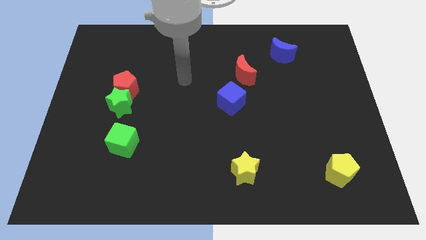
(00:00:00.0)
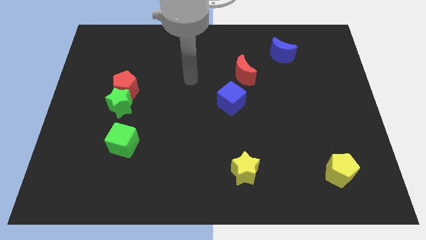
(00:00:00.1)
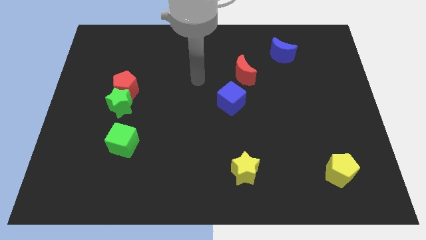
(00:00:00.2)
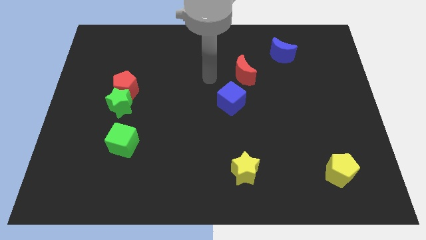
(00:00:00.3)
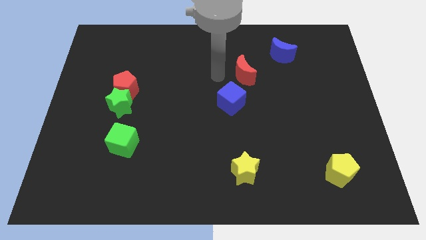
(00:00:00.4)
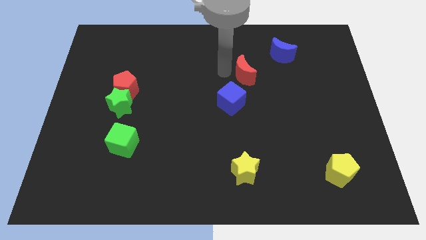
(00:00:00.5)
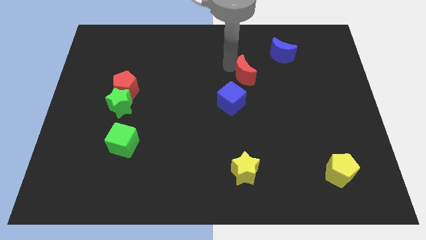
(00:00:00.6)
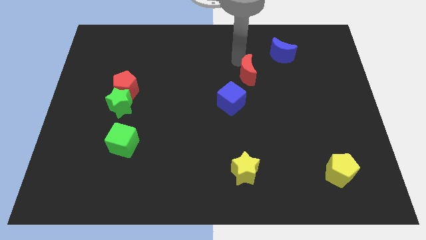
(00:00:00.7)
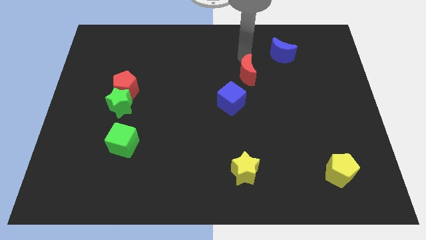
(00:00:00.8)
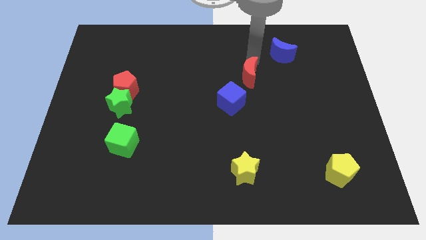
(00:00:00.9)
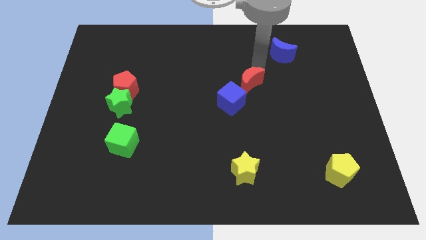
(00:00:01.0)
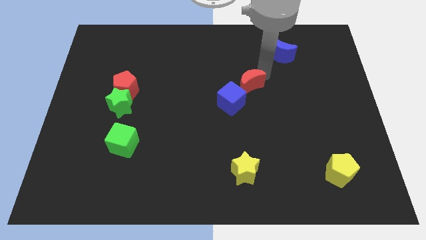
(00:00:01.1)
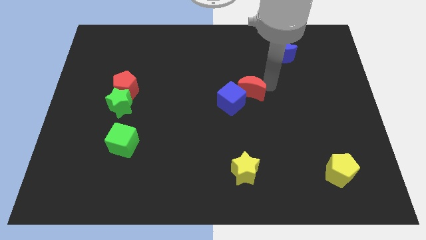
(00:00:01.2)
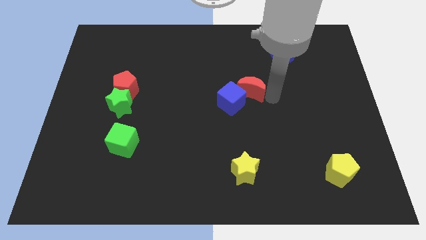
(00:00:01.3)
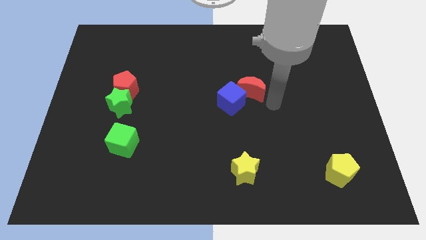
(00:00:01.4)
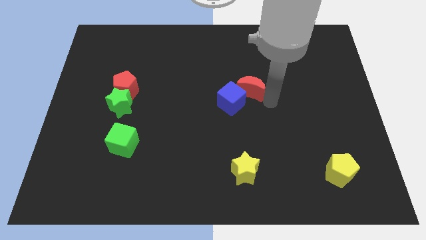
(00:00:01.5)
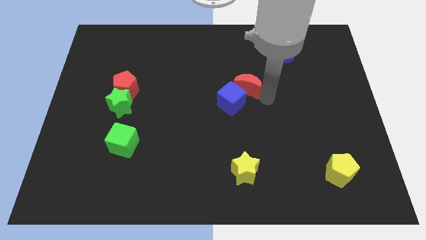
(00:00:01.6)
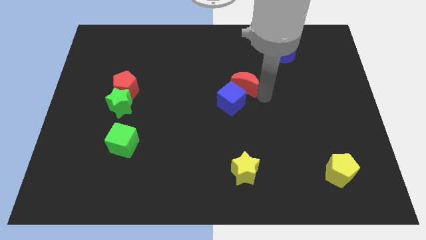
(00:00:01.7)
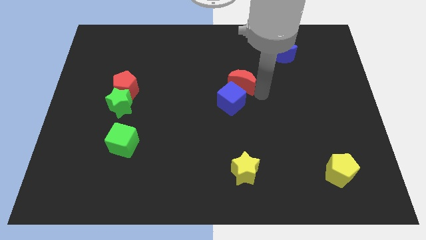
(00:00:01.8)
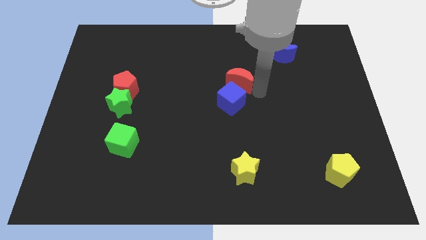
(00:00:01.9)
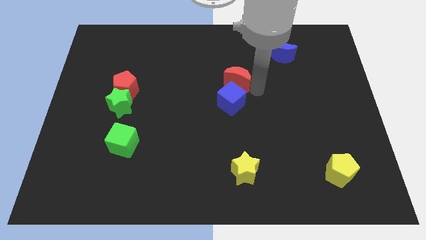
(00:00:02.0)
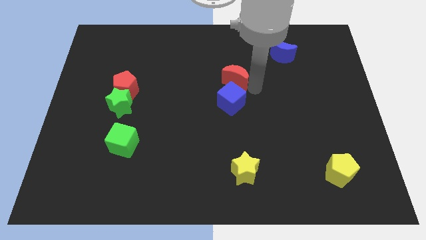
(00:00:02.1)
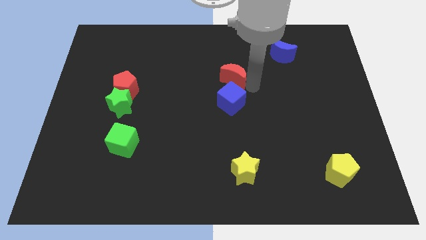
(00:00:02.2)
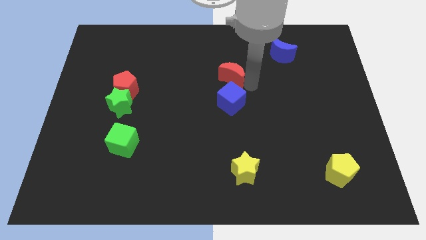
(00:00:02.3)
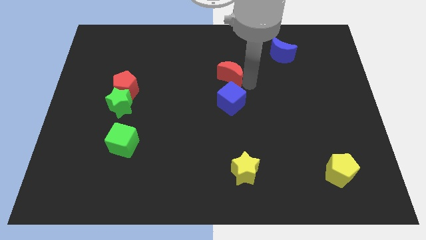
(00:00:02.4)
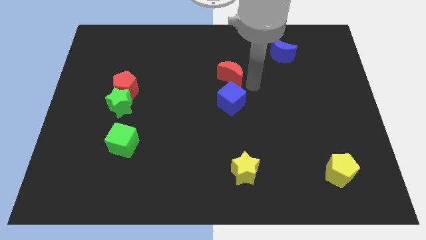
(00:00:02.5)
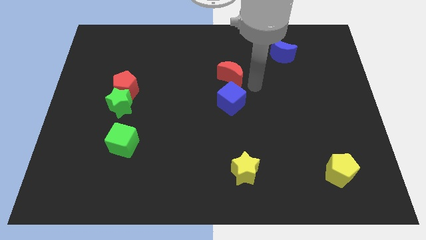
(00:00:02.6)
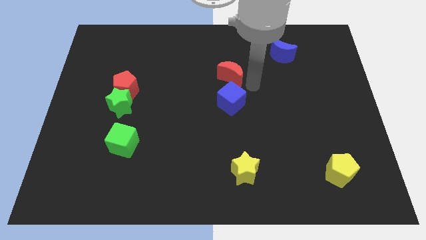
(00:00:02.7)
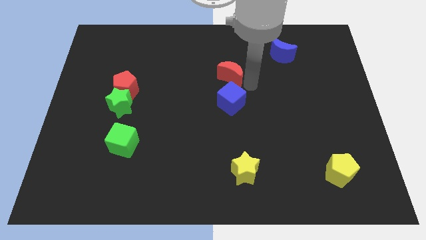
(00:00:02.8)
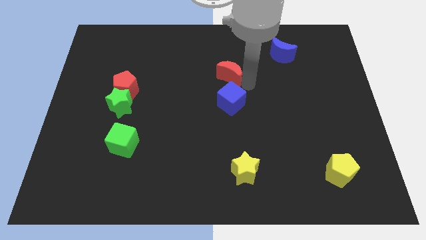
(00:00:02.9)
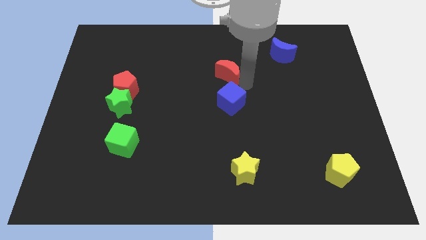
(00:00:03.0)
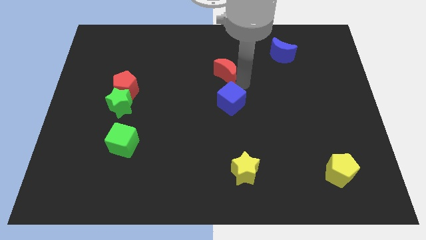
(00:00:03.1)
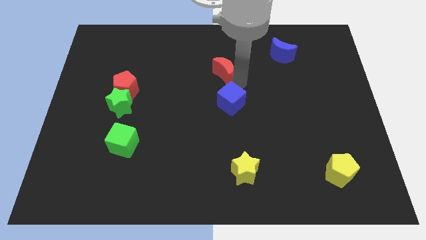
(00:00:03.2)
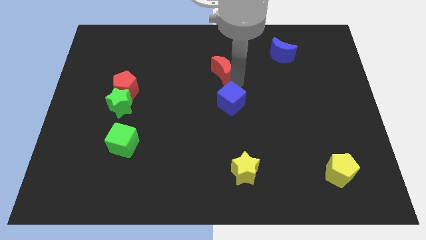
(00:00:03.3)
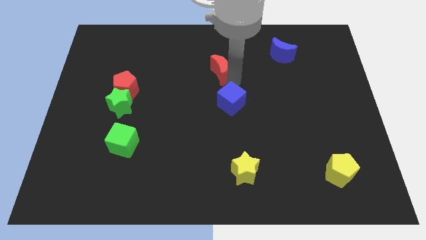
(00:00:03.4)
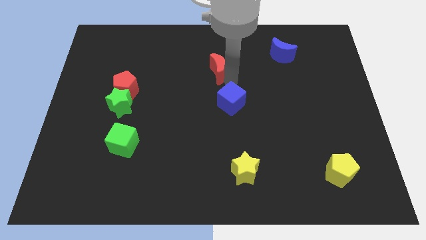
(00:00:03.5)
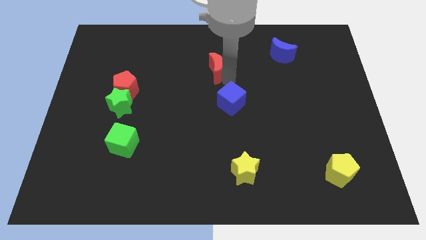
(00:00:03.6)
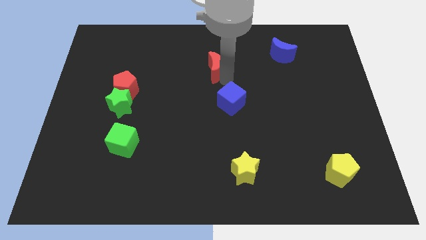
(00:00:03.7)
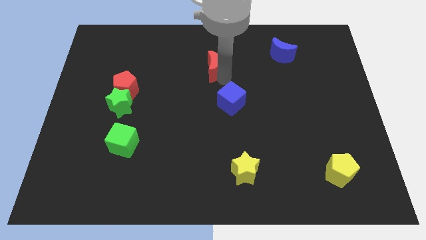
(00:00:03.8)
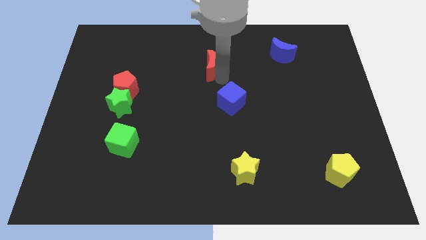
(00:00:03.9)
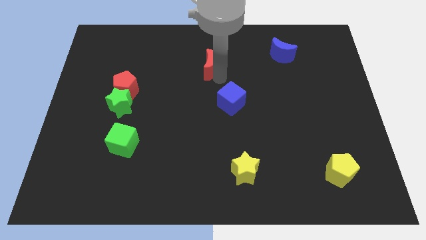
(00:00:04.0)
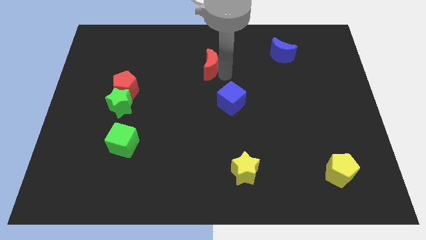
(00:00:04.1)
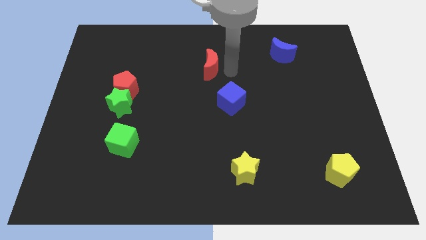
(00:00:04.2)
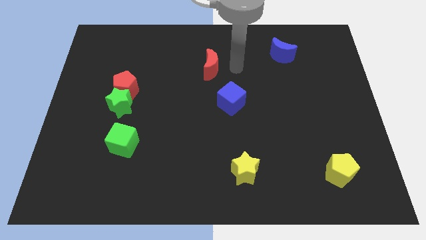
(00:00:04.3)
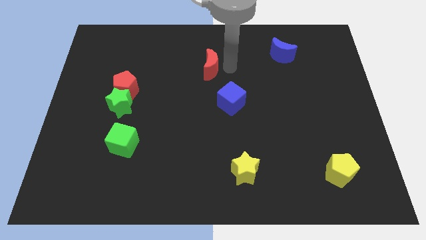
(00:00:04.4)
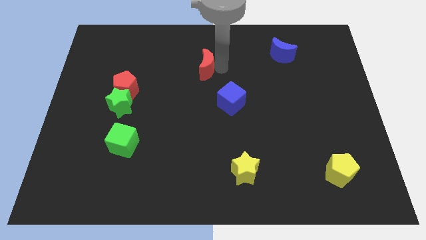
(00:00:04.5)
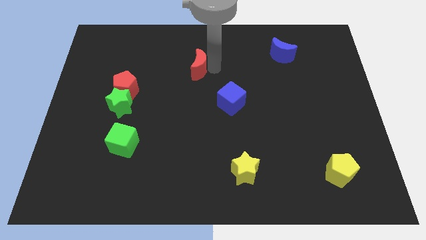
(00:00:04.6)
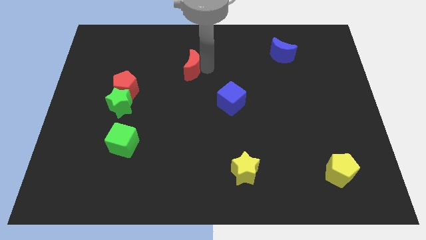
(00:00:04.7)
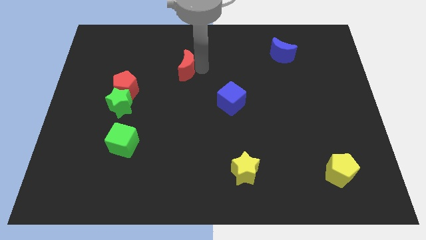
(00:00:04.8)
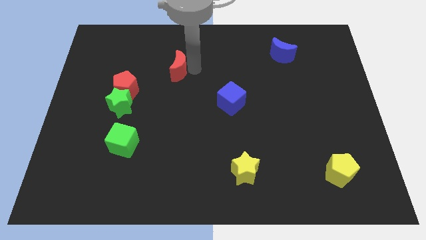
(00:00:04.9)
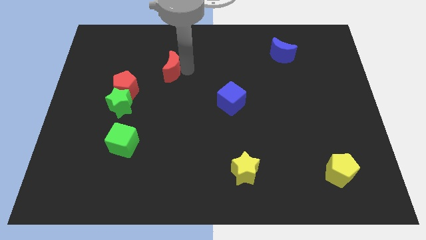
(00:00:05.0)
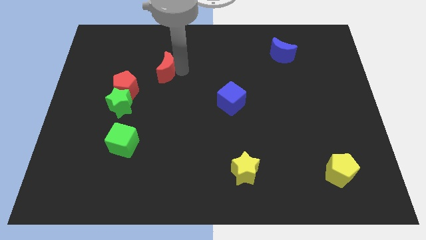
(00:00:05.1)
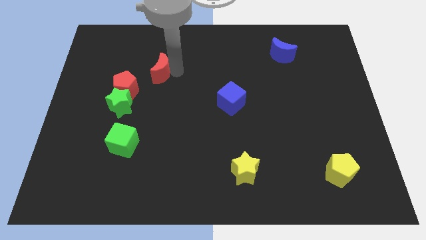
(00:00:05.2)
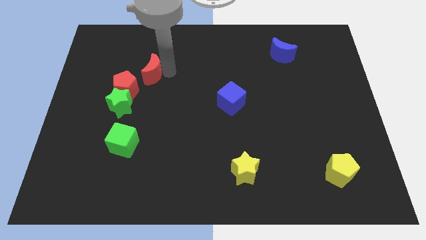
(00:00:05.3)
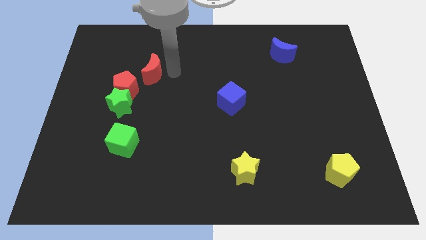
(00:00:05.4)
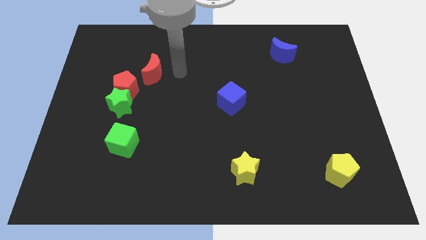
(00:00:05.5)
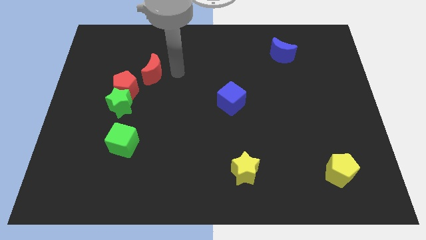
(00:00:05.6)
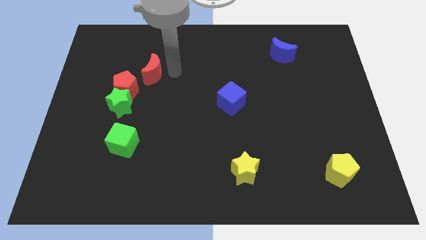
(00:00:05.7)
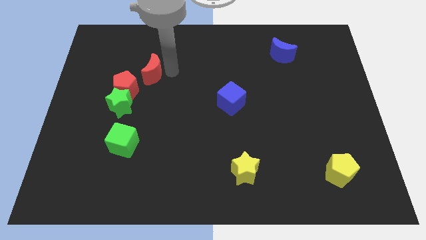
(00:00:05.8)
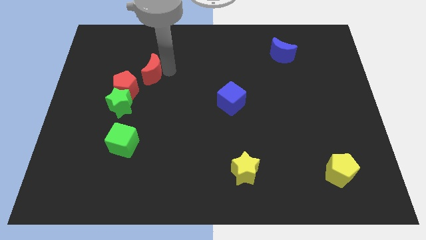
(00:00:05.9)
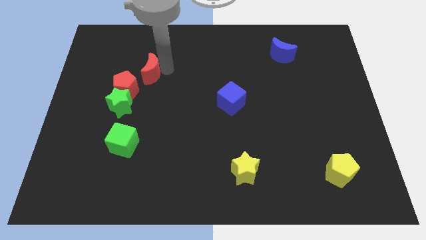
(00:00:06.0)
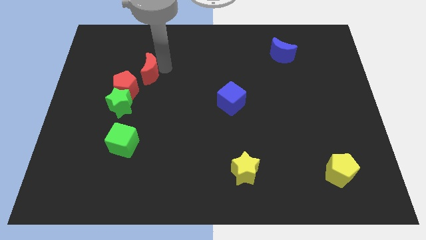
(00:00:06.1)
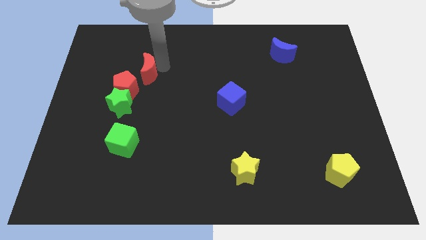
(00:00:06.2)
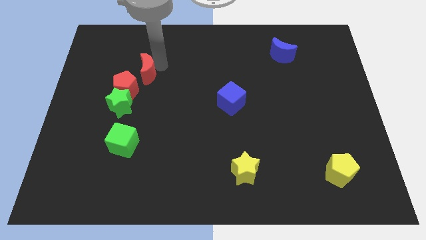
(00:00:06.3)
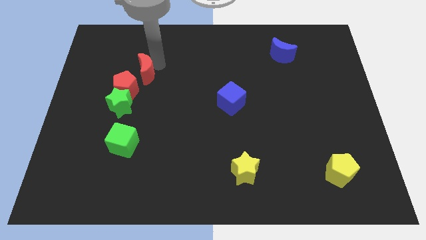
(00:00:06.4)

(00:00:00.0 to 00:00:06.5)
push the red moon to the top of the green star

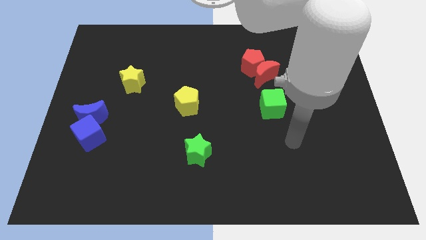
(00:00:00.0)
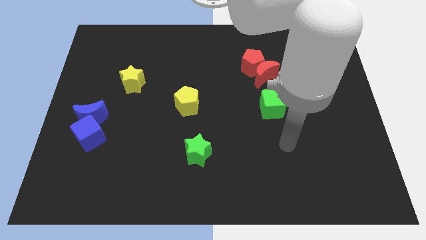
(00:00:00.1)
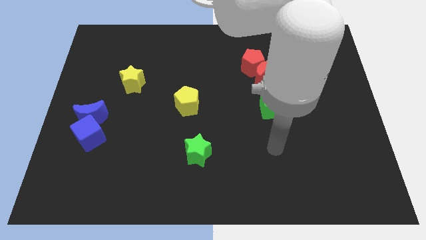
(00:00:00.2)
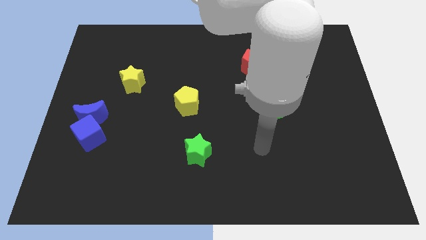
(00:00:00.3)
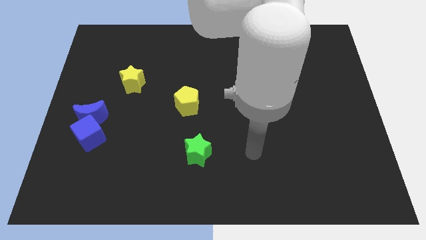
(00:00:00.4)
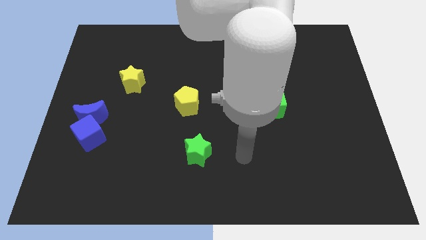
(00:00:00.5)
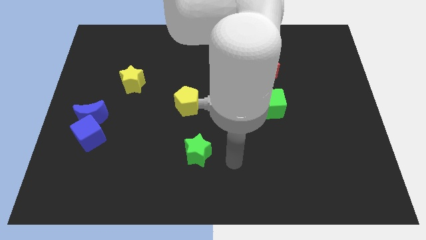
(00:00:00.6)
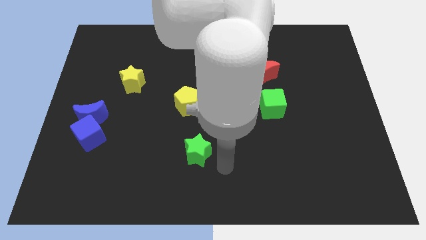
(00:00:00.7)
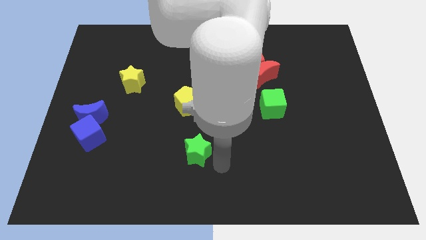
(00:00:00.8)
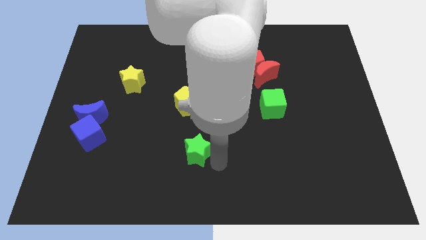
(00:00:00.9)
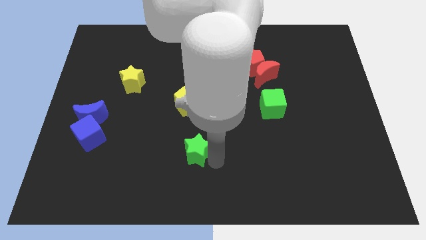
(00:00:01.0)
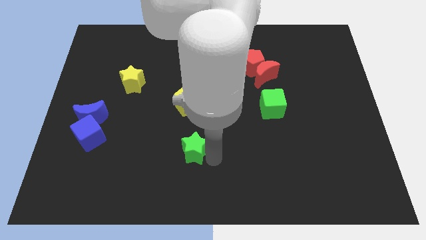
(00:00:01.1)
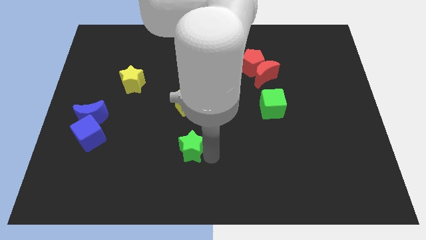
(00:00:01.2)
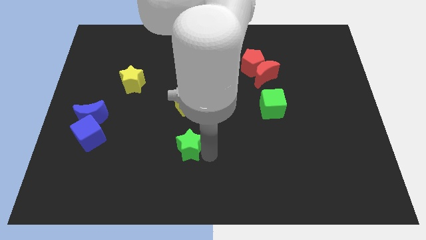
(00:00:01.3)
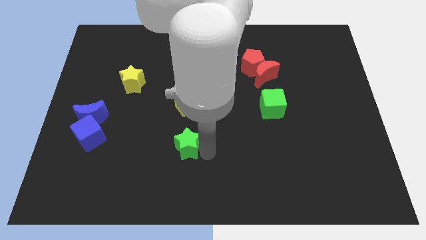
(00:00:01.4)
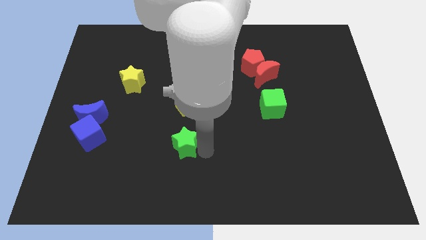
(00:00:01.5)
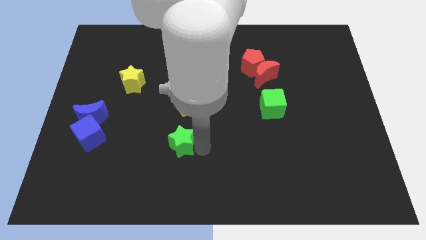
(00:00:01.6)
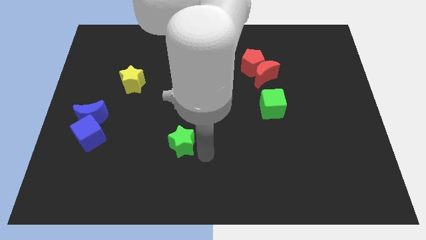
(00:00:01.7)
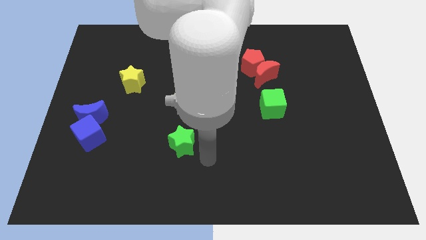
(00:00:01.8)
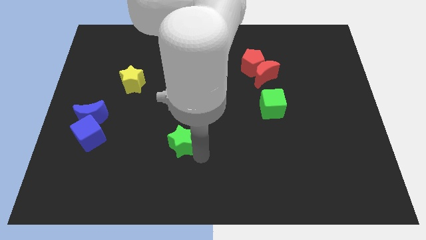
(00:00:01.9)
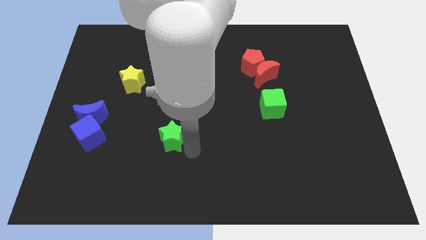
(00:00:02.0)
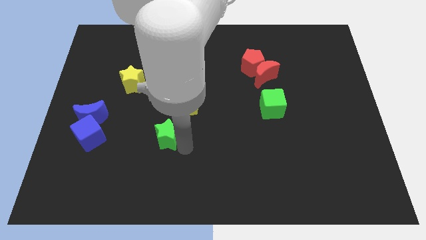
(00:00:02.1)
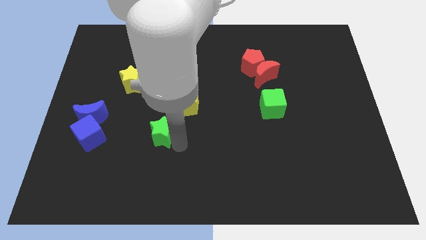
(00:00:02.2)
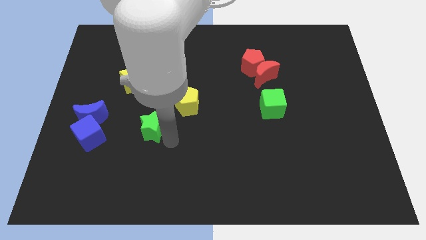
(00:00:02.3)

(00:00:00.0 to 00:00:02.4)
move the green star right of the blue moon
